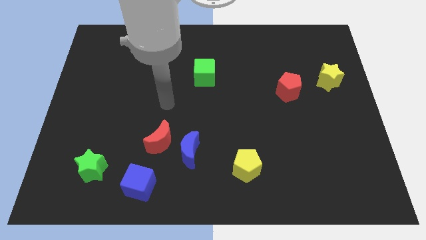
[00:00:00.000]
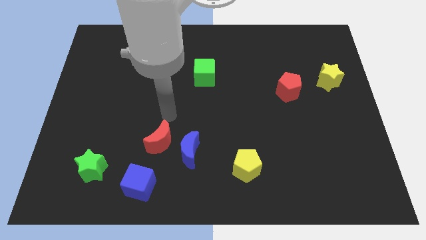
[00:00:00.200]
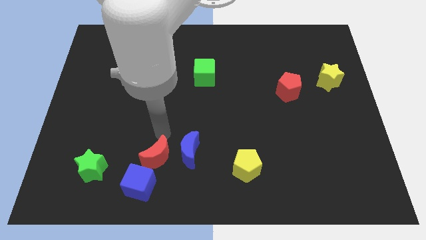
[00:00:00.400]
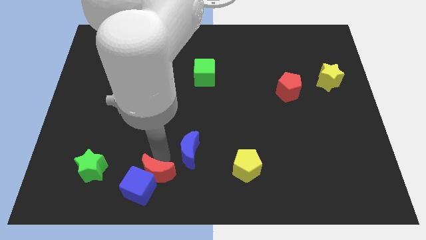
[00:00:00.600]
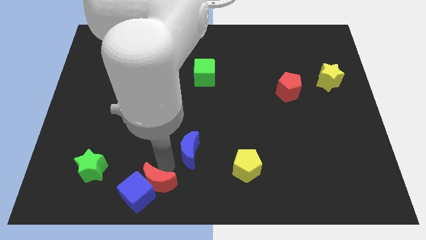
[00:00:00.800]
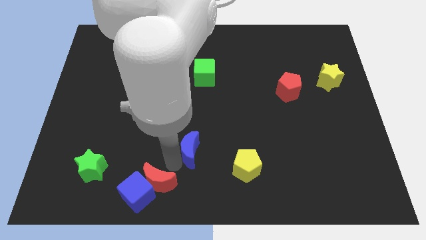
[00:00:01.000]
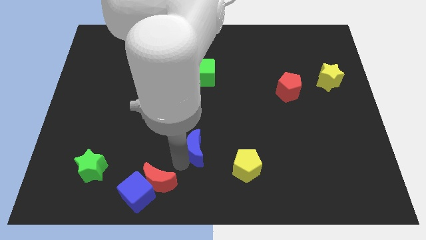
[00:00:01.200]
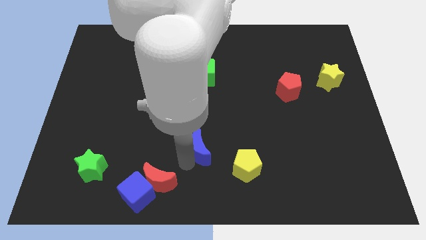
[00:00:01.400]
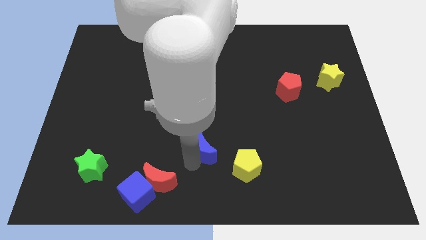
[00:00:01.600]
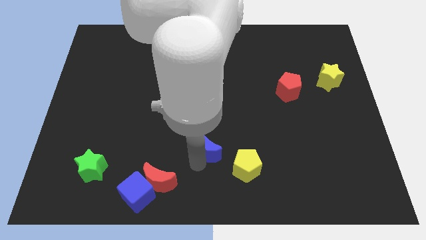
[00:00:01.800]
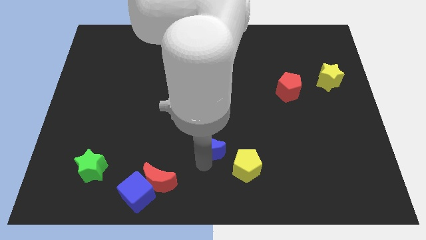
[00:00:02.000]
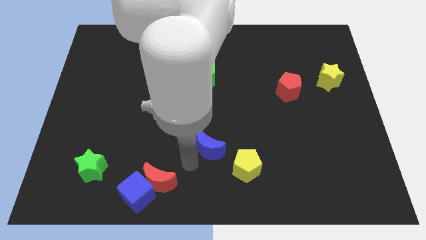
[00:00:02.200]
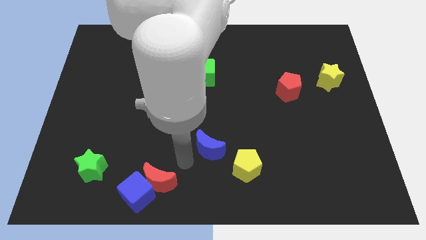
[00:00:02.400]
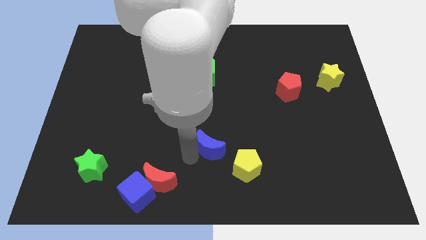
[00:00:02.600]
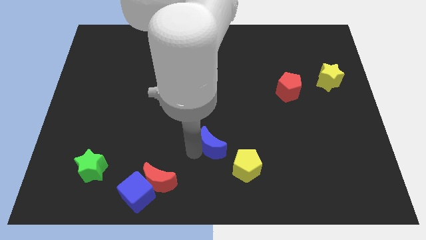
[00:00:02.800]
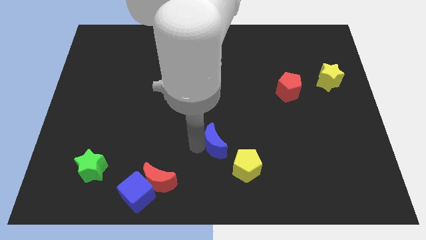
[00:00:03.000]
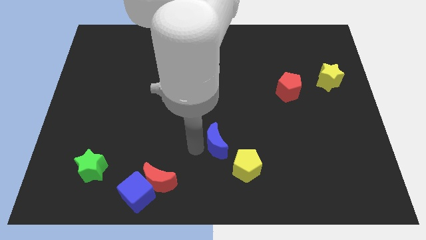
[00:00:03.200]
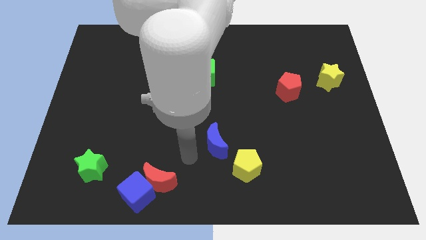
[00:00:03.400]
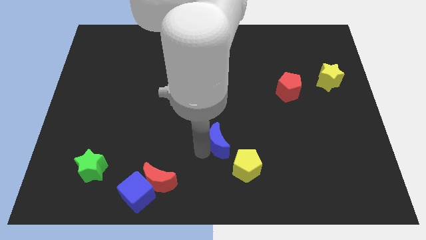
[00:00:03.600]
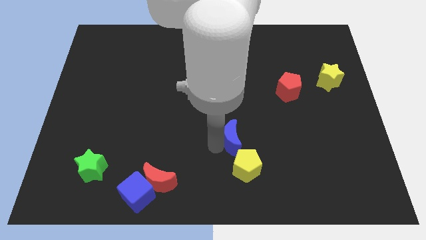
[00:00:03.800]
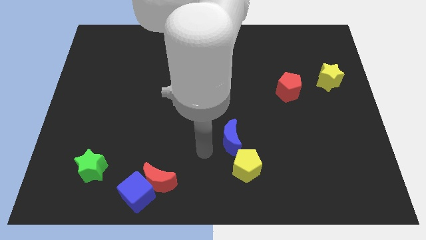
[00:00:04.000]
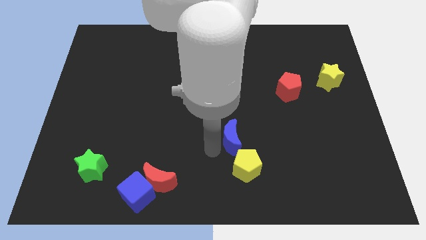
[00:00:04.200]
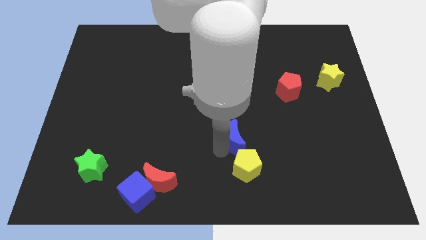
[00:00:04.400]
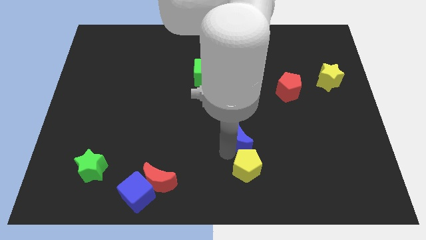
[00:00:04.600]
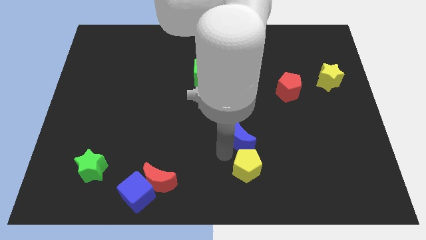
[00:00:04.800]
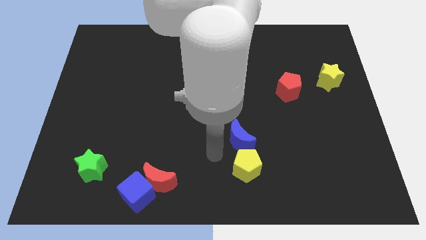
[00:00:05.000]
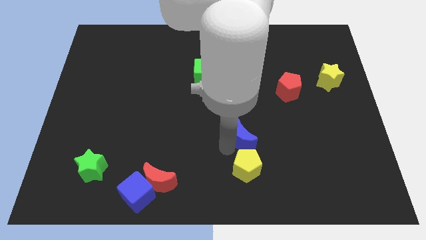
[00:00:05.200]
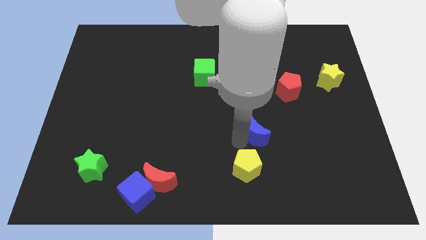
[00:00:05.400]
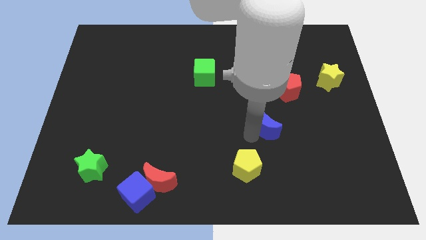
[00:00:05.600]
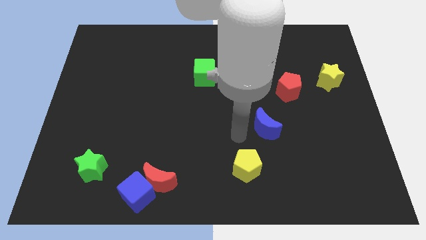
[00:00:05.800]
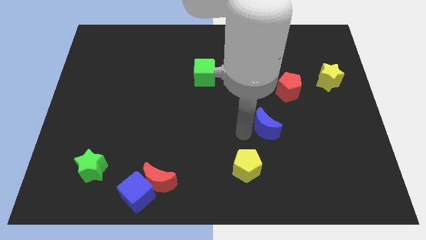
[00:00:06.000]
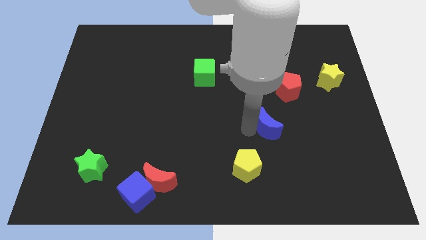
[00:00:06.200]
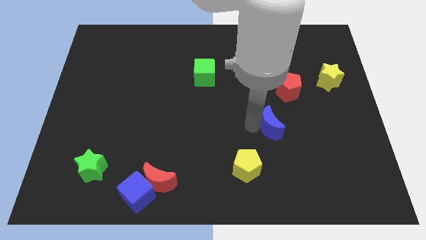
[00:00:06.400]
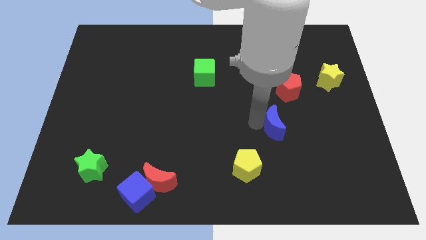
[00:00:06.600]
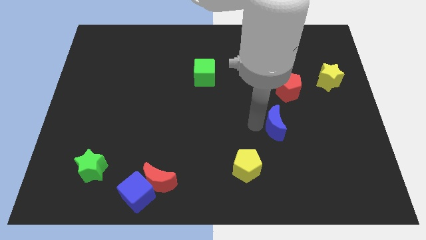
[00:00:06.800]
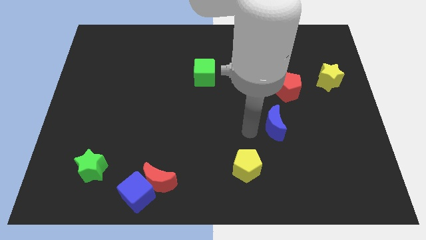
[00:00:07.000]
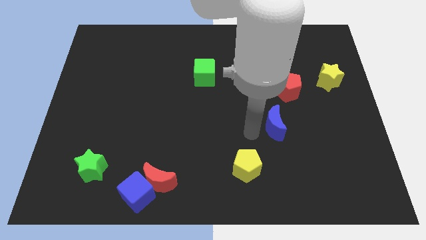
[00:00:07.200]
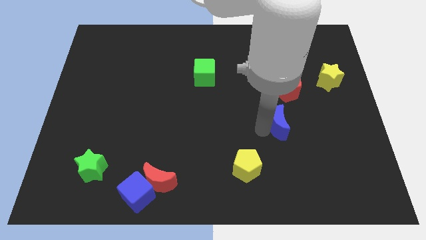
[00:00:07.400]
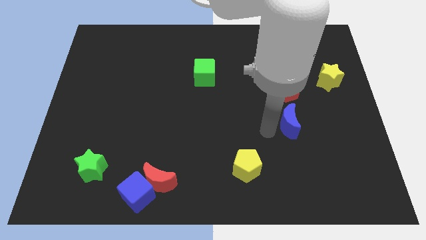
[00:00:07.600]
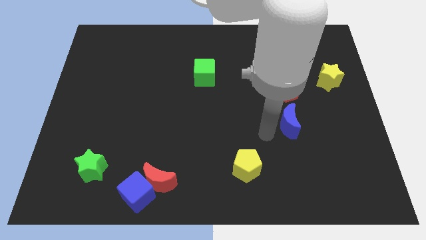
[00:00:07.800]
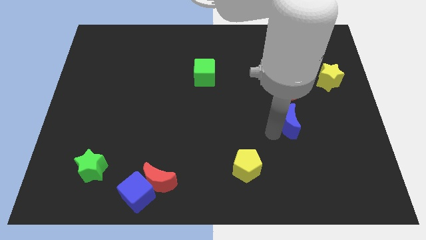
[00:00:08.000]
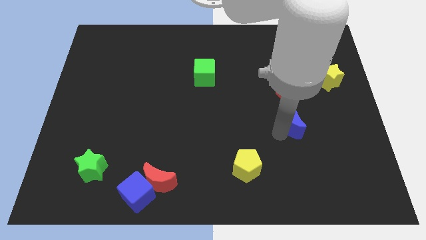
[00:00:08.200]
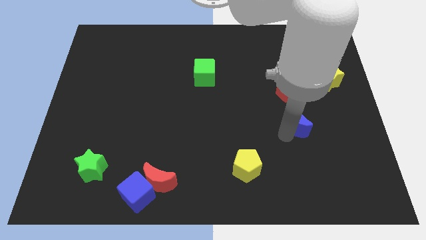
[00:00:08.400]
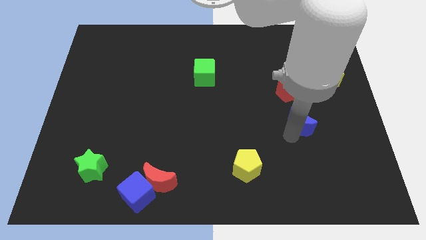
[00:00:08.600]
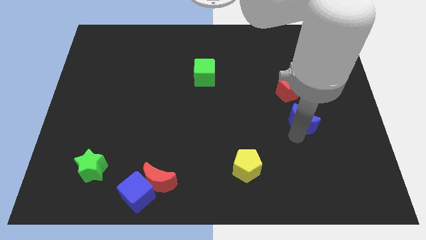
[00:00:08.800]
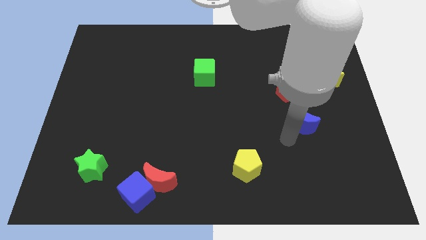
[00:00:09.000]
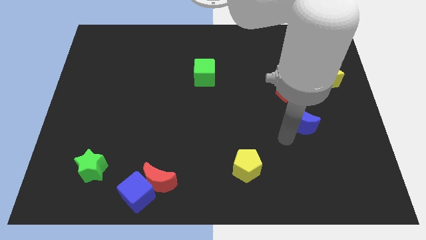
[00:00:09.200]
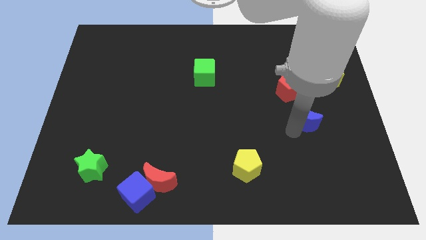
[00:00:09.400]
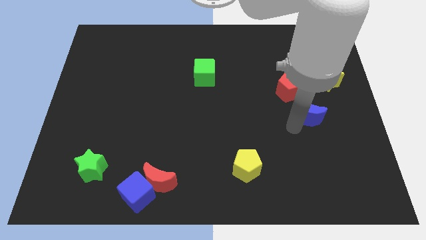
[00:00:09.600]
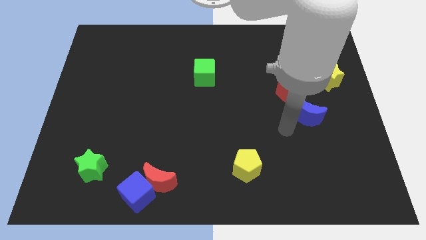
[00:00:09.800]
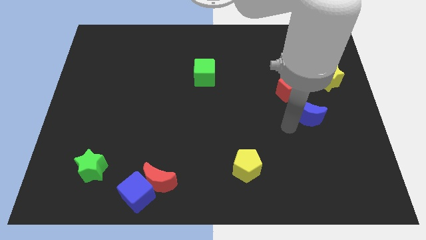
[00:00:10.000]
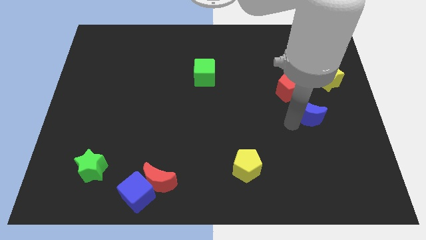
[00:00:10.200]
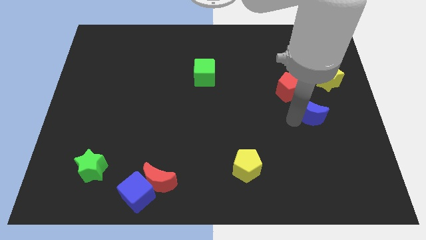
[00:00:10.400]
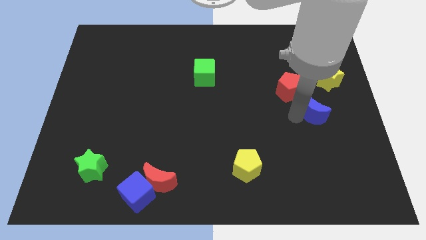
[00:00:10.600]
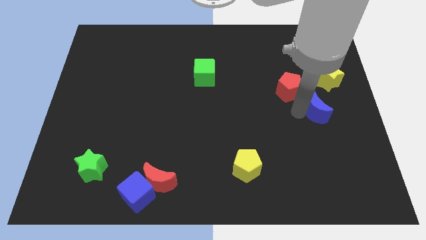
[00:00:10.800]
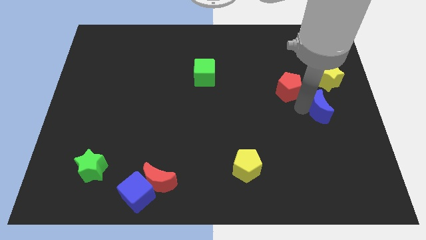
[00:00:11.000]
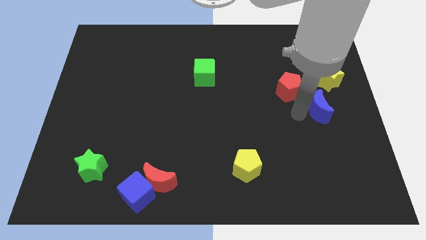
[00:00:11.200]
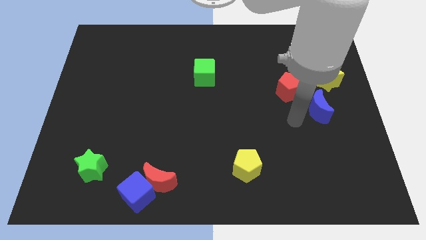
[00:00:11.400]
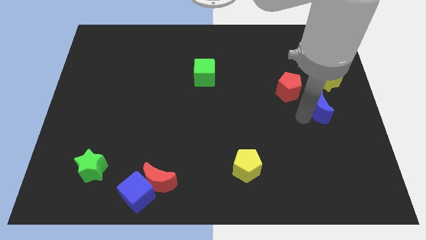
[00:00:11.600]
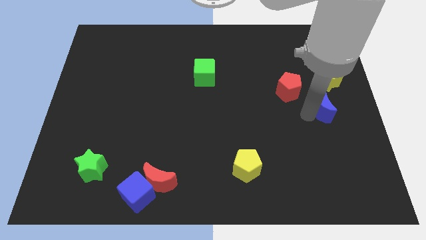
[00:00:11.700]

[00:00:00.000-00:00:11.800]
move the blue moon to the right side of the board
